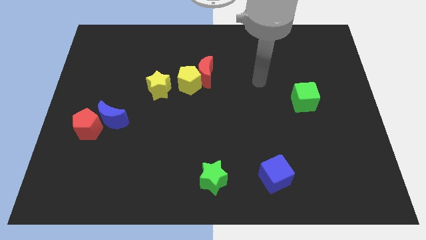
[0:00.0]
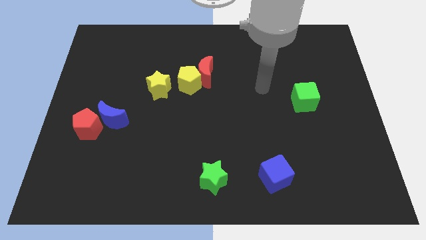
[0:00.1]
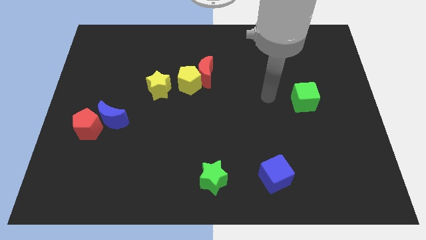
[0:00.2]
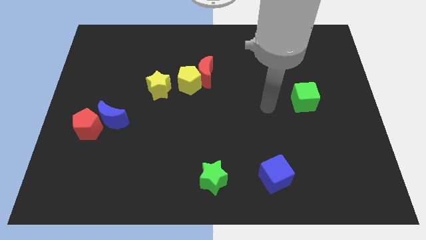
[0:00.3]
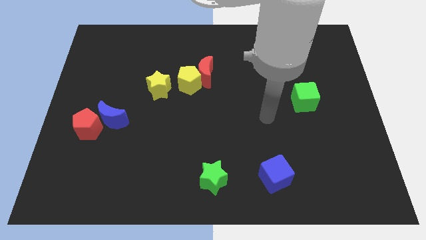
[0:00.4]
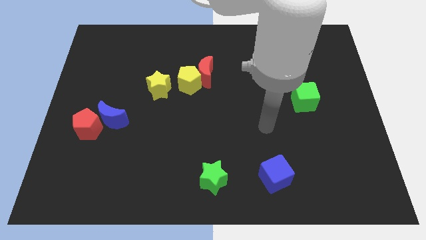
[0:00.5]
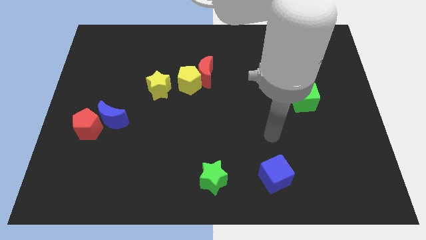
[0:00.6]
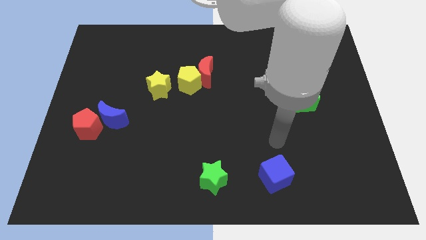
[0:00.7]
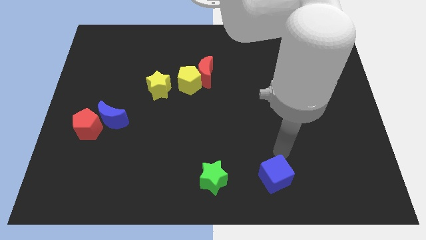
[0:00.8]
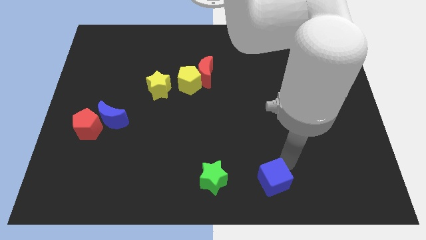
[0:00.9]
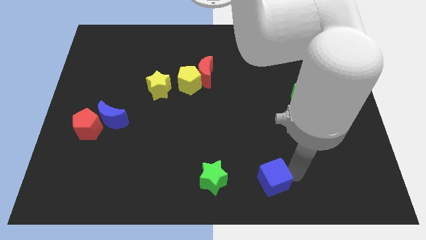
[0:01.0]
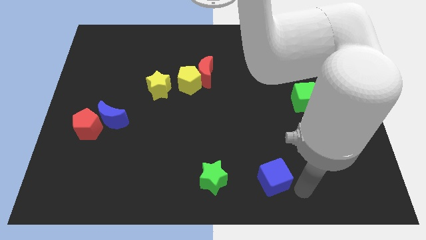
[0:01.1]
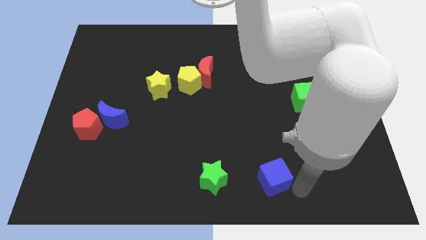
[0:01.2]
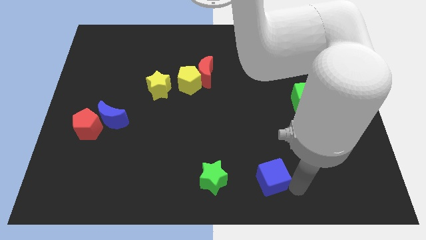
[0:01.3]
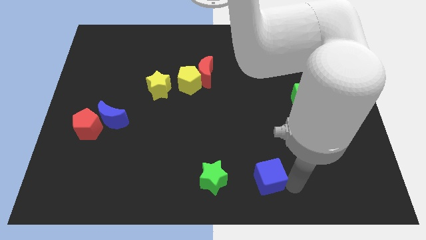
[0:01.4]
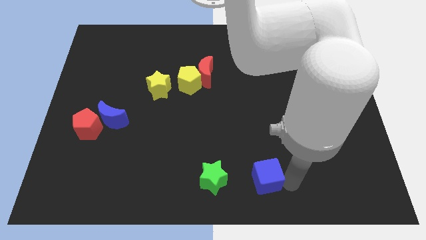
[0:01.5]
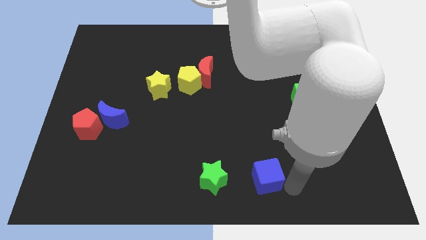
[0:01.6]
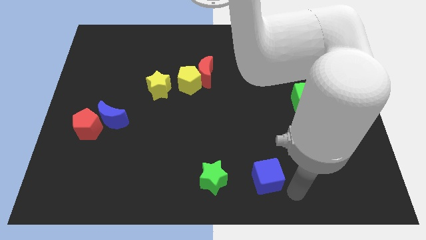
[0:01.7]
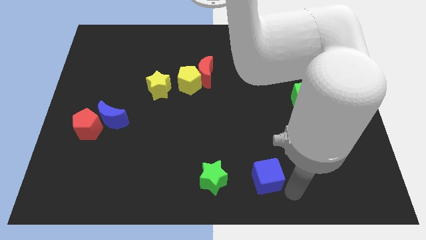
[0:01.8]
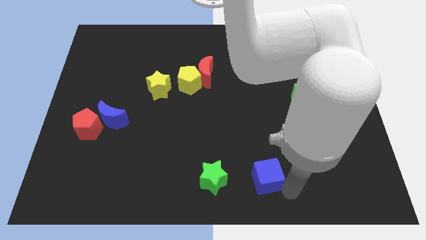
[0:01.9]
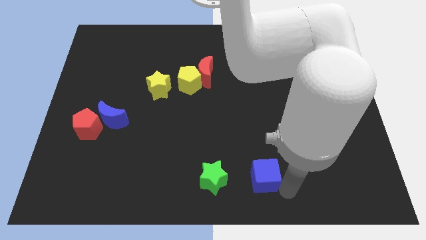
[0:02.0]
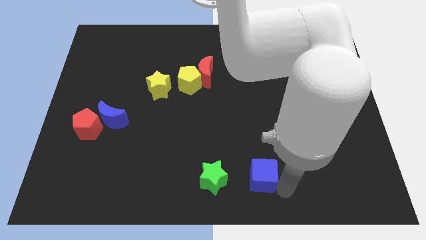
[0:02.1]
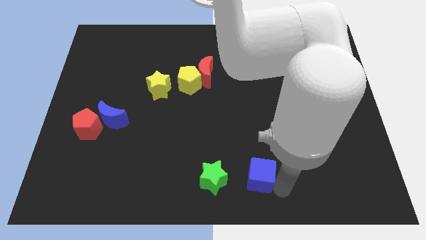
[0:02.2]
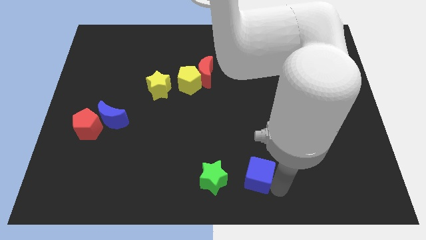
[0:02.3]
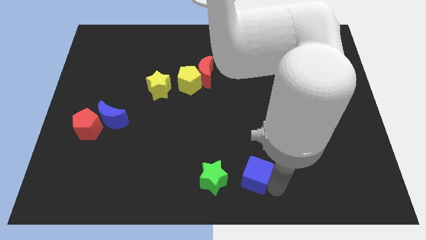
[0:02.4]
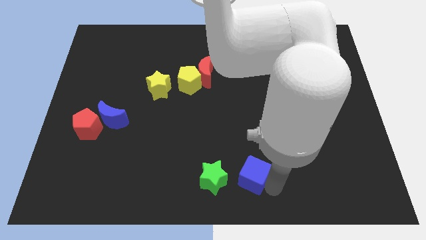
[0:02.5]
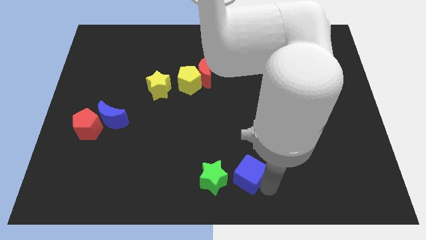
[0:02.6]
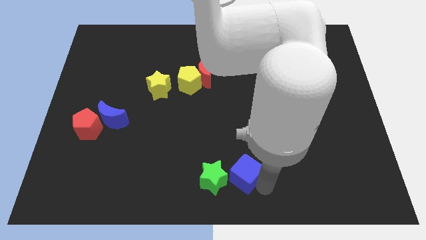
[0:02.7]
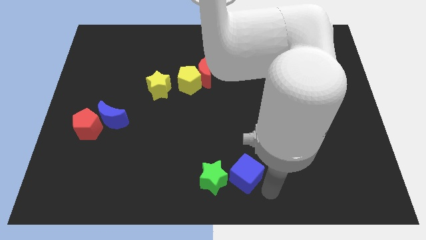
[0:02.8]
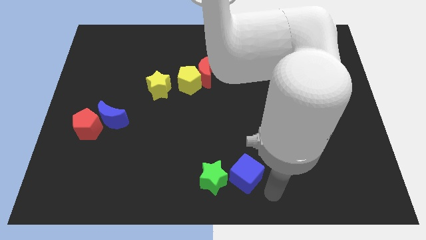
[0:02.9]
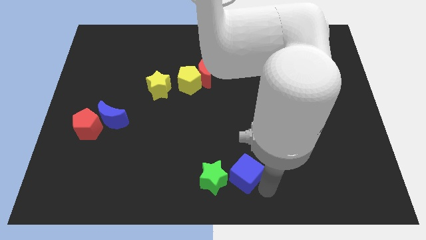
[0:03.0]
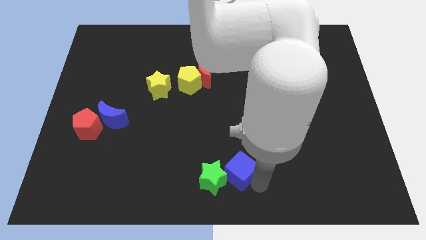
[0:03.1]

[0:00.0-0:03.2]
slightly move the blue cube left

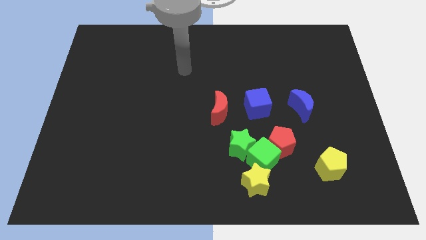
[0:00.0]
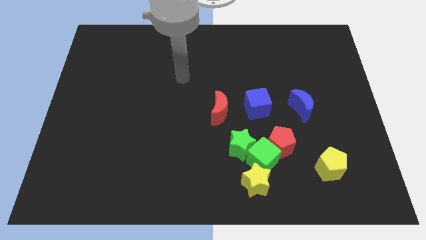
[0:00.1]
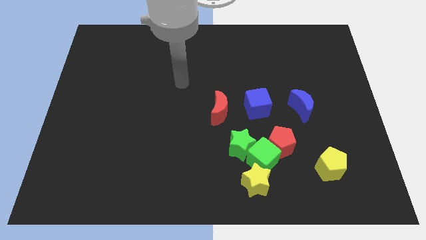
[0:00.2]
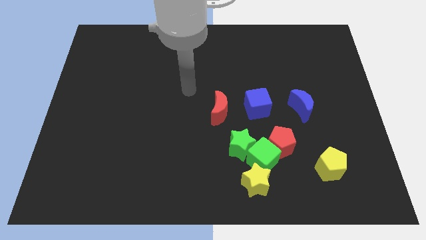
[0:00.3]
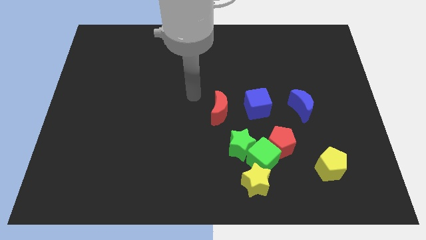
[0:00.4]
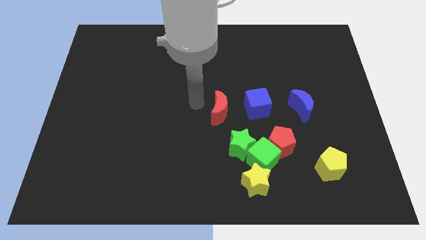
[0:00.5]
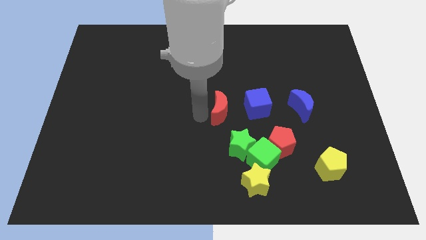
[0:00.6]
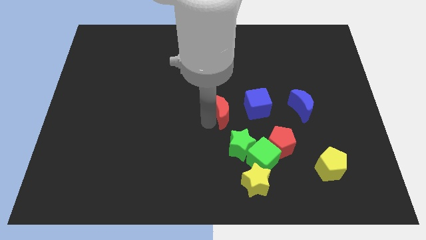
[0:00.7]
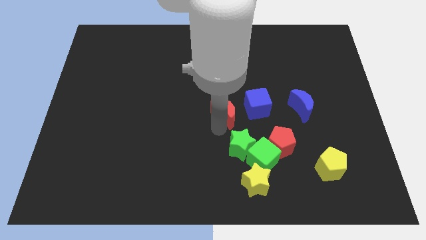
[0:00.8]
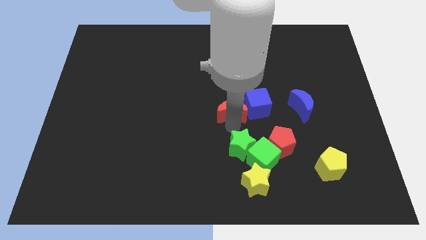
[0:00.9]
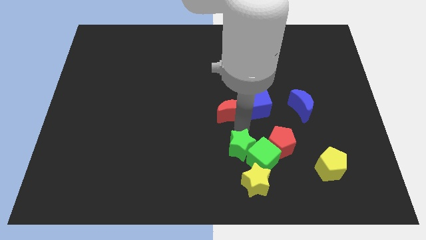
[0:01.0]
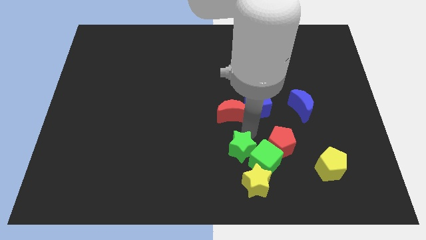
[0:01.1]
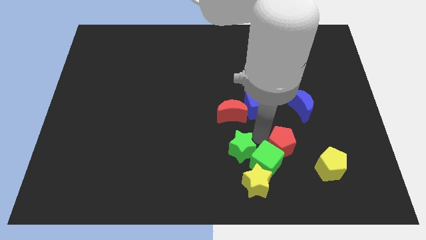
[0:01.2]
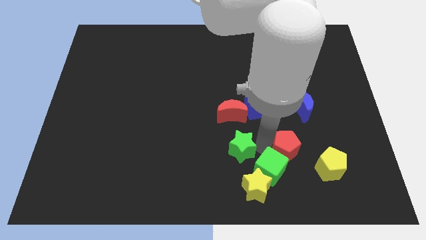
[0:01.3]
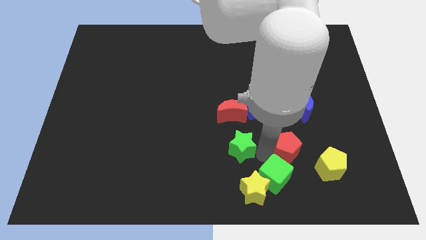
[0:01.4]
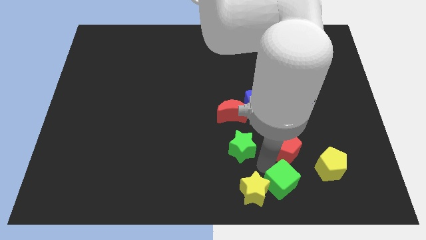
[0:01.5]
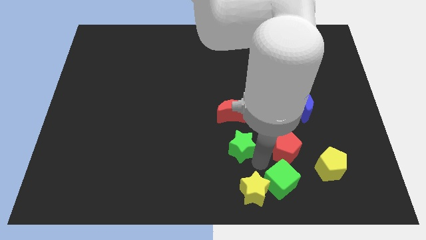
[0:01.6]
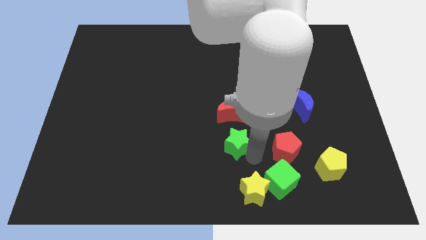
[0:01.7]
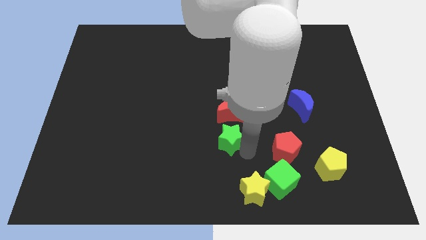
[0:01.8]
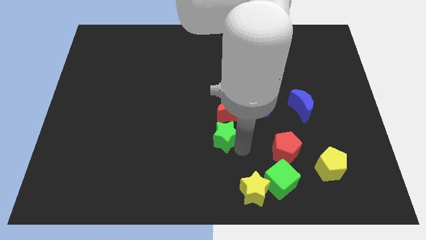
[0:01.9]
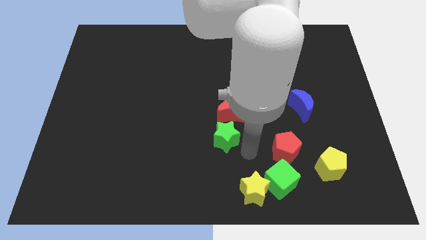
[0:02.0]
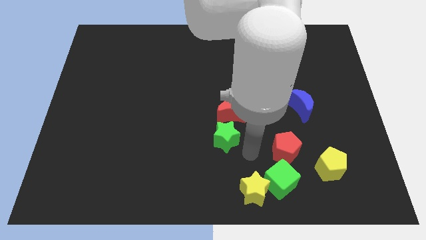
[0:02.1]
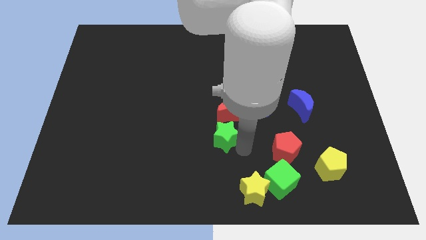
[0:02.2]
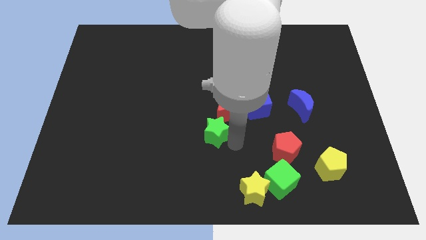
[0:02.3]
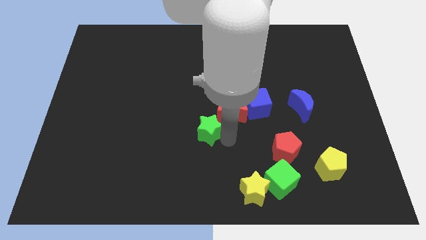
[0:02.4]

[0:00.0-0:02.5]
slightly move the green star upwards and then left

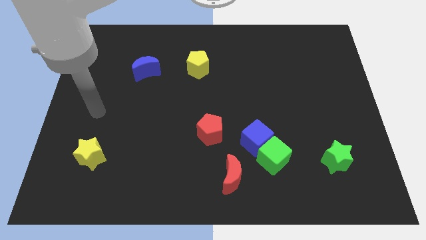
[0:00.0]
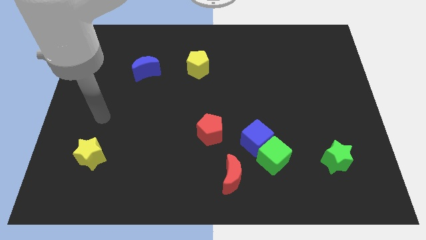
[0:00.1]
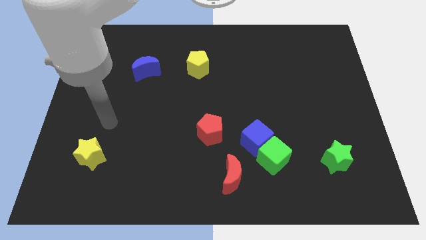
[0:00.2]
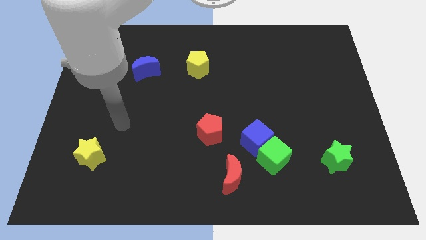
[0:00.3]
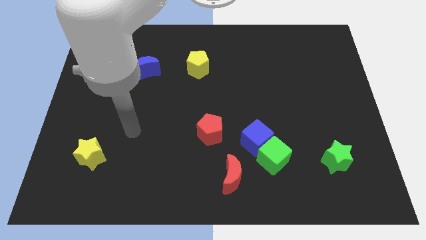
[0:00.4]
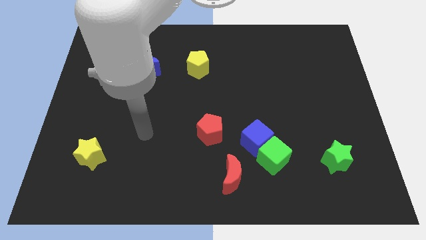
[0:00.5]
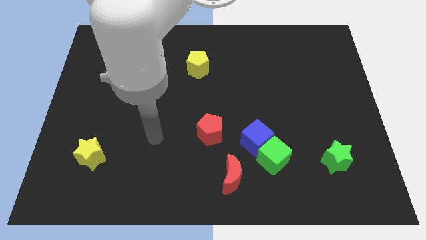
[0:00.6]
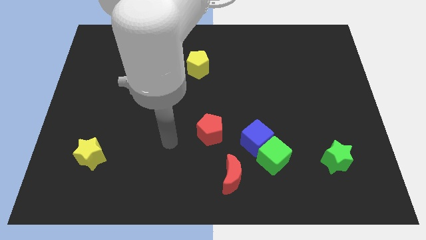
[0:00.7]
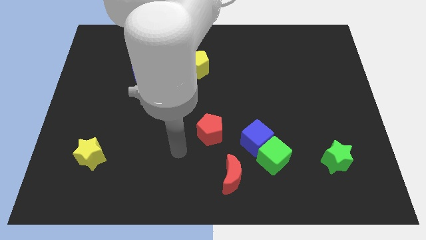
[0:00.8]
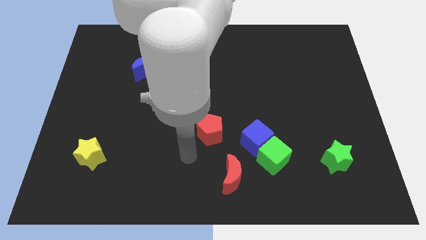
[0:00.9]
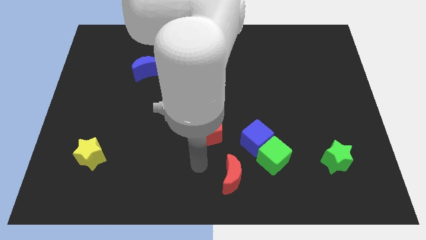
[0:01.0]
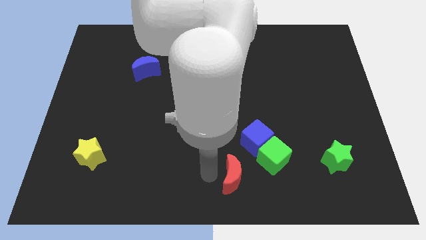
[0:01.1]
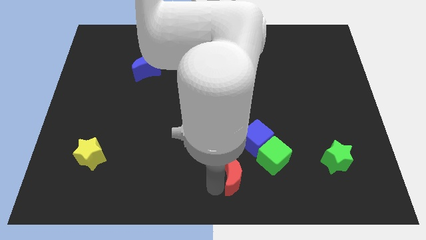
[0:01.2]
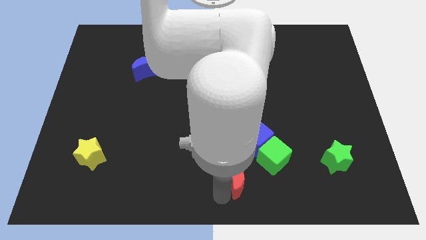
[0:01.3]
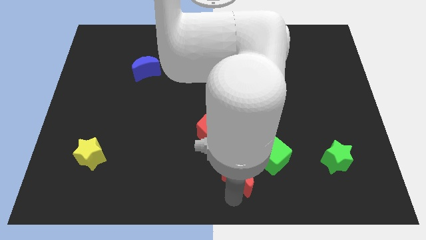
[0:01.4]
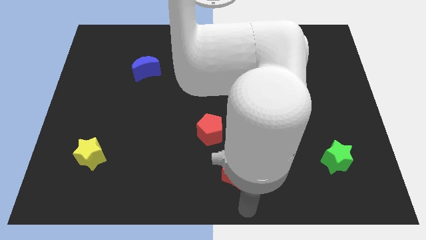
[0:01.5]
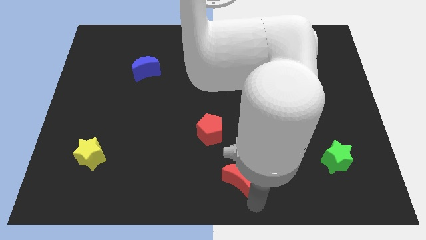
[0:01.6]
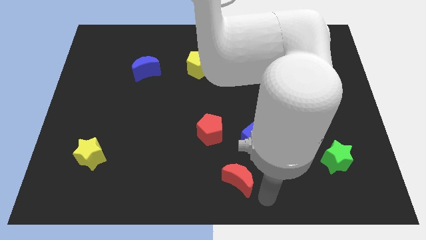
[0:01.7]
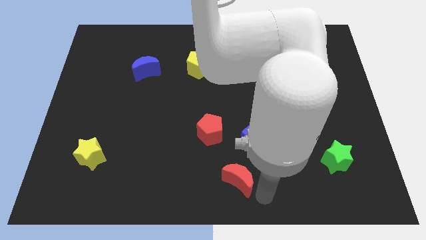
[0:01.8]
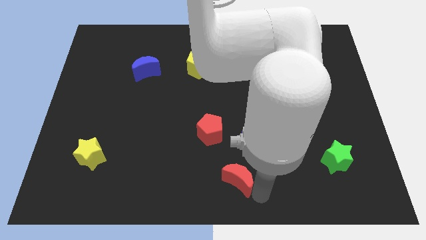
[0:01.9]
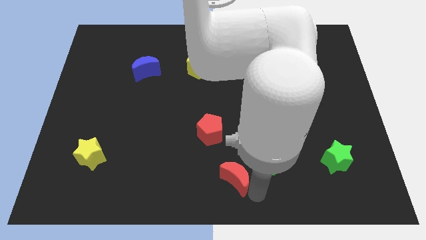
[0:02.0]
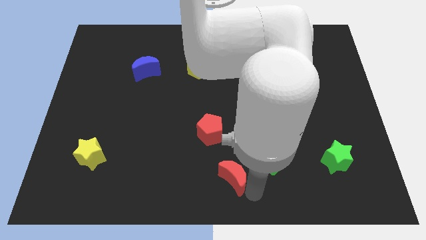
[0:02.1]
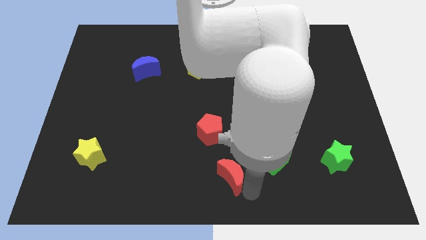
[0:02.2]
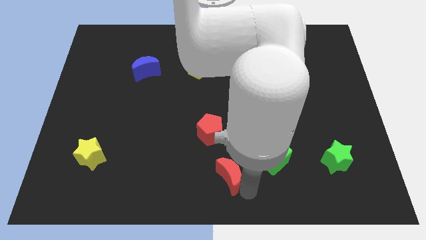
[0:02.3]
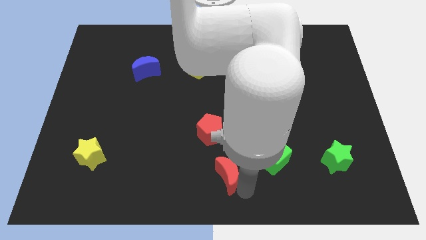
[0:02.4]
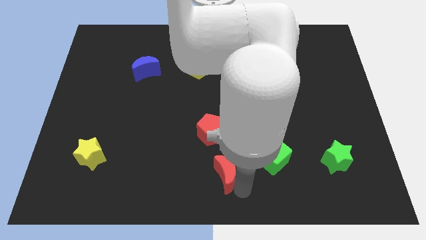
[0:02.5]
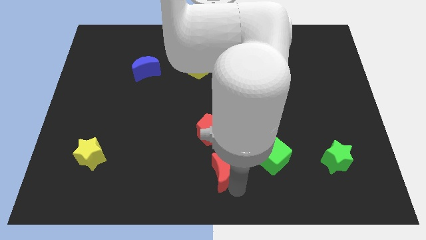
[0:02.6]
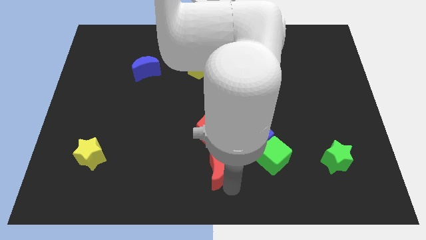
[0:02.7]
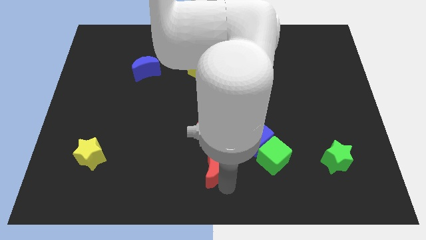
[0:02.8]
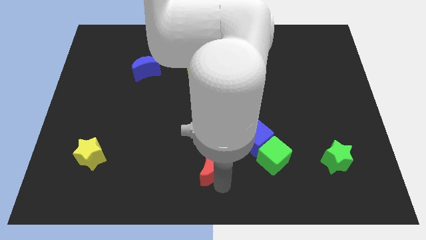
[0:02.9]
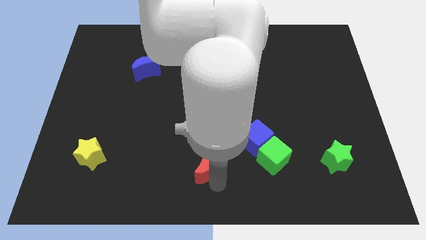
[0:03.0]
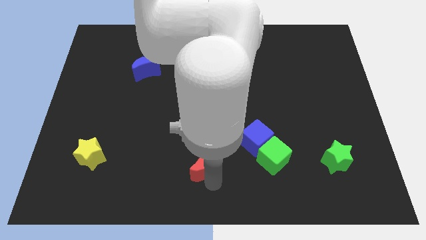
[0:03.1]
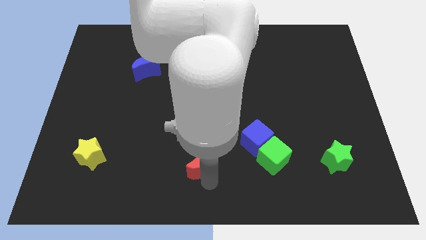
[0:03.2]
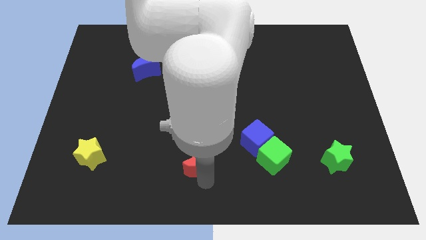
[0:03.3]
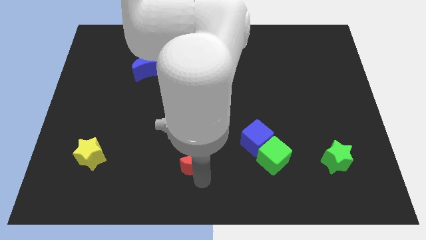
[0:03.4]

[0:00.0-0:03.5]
slightly slide the red moon upwards and to the left diagonally
